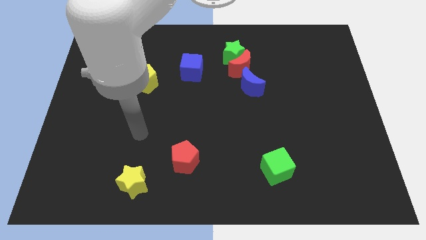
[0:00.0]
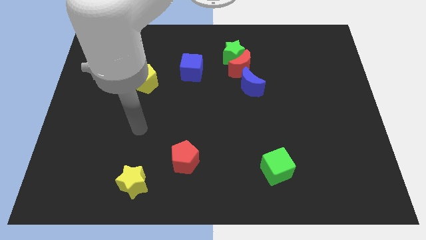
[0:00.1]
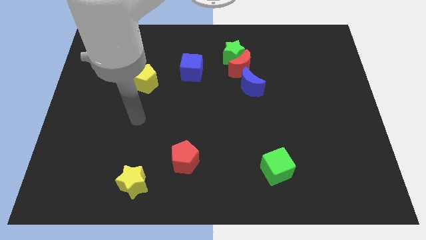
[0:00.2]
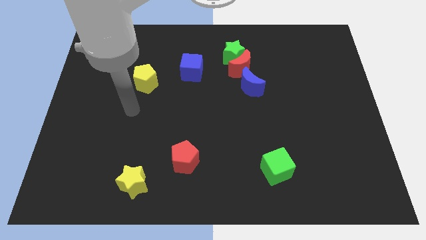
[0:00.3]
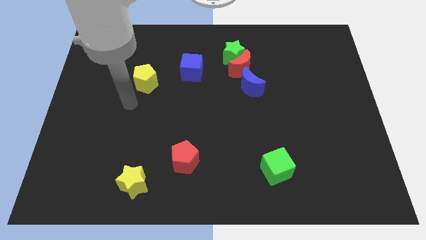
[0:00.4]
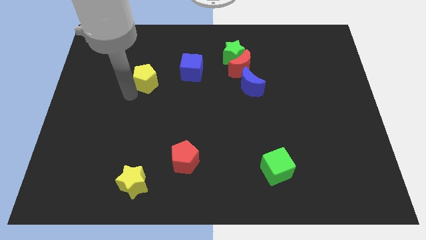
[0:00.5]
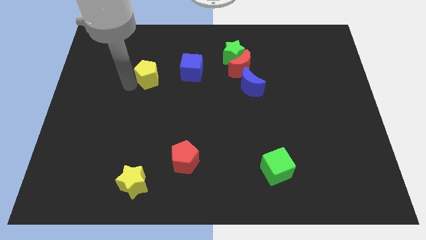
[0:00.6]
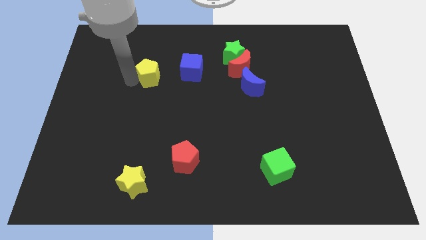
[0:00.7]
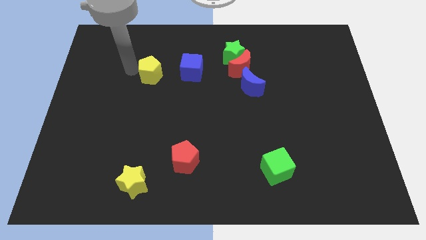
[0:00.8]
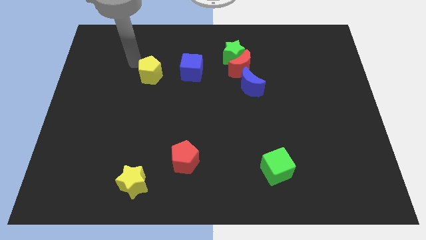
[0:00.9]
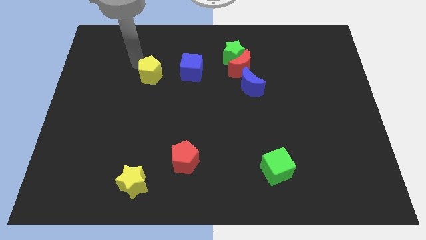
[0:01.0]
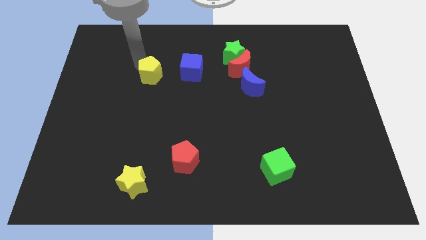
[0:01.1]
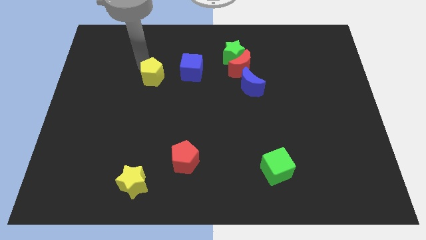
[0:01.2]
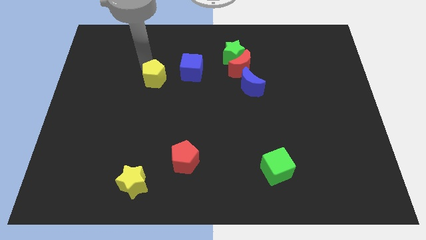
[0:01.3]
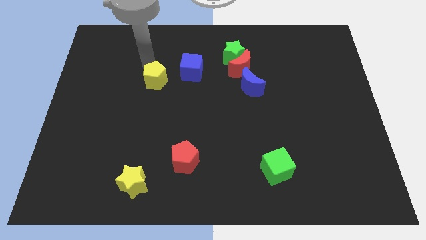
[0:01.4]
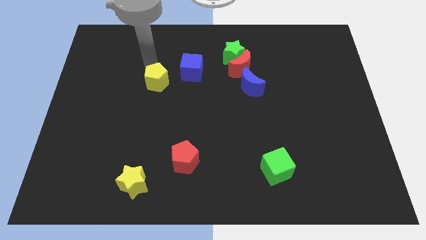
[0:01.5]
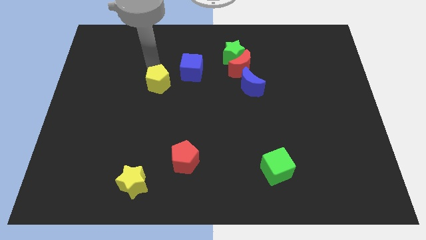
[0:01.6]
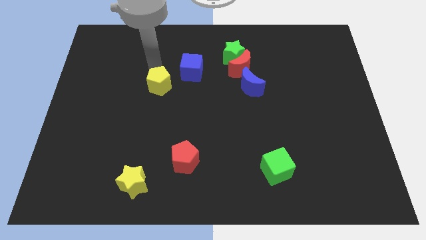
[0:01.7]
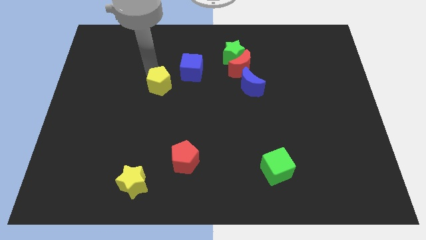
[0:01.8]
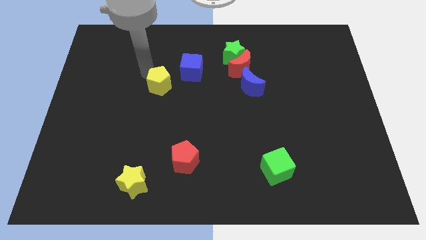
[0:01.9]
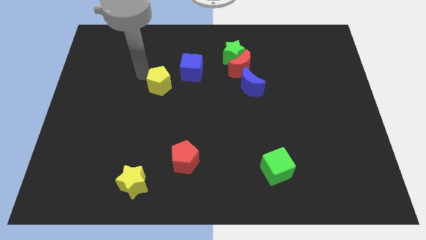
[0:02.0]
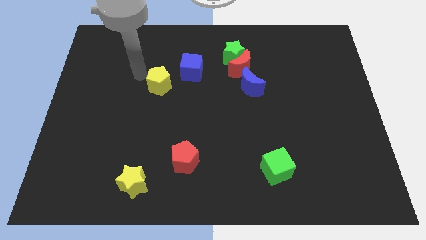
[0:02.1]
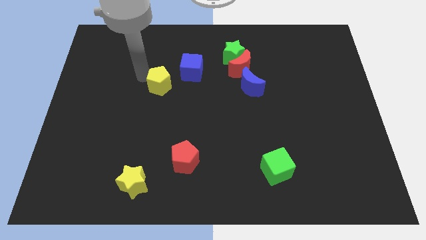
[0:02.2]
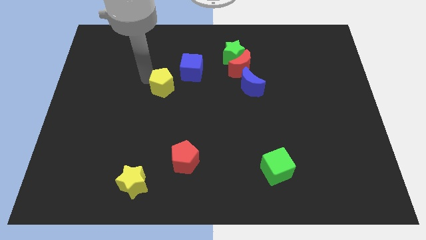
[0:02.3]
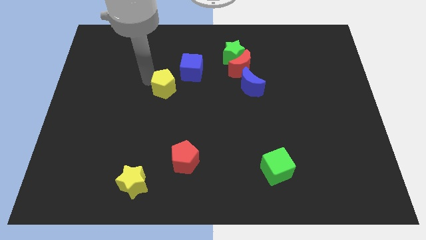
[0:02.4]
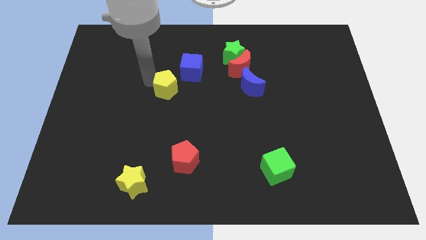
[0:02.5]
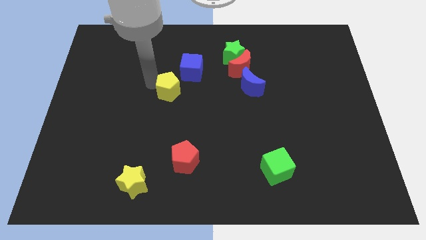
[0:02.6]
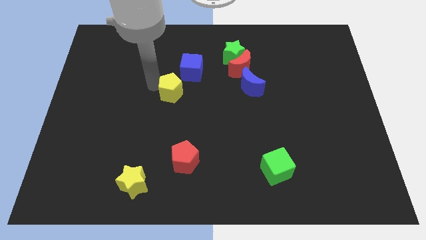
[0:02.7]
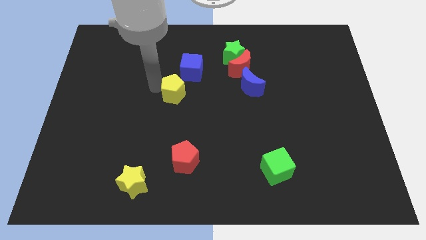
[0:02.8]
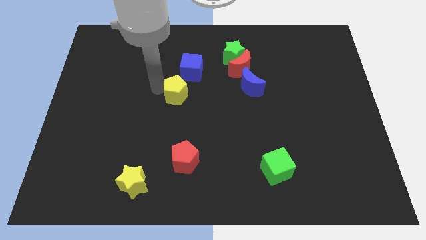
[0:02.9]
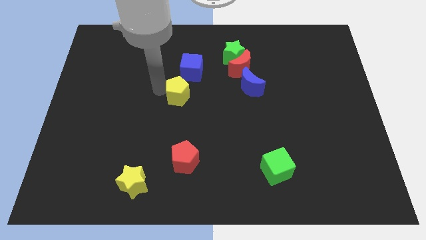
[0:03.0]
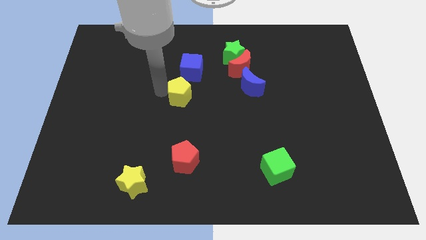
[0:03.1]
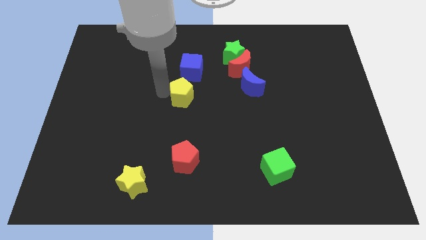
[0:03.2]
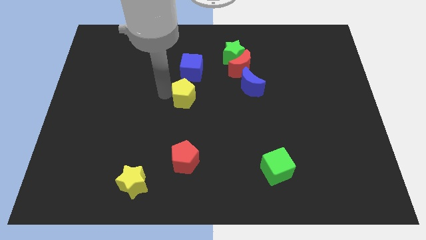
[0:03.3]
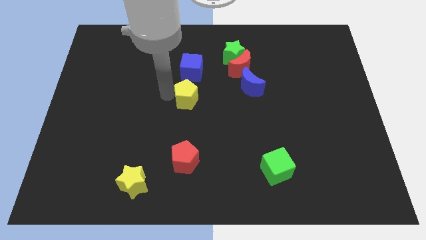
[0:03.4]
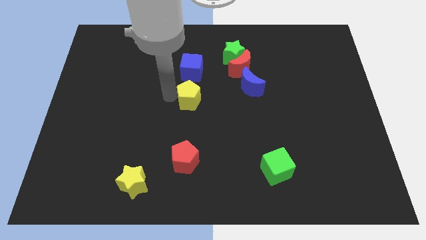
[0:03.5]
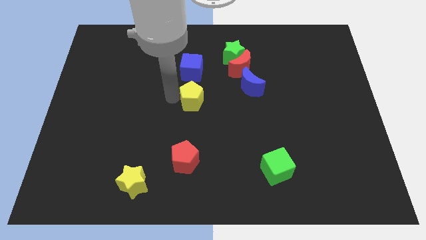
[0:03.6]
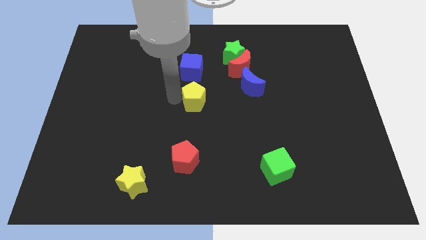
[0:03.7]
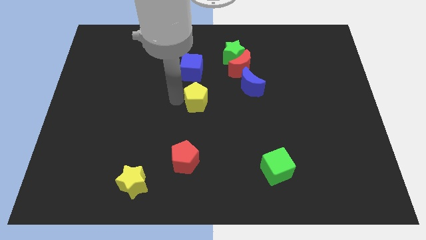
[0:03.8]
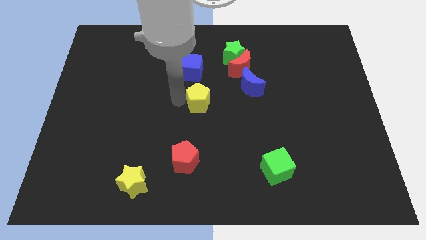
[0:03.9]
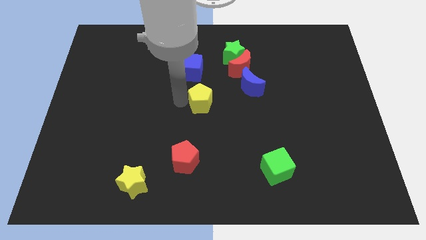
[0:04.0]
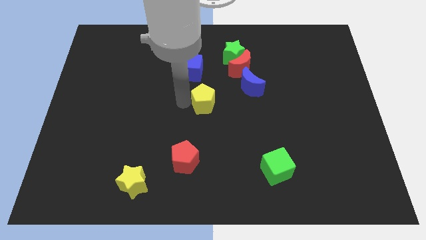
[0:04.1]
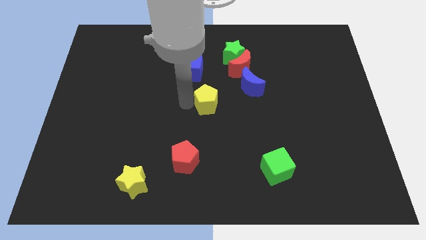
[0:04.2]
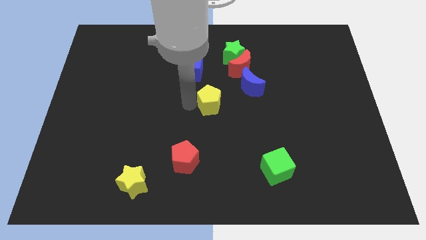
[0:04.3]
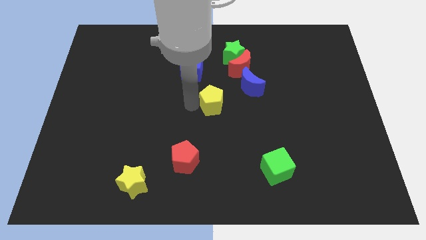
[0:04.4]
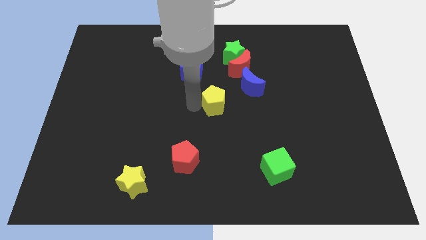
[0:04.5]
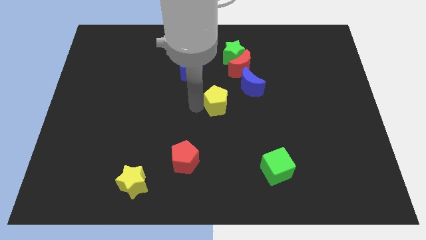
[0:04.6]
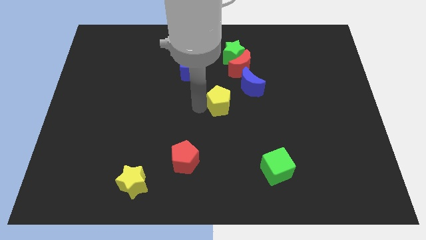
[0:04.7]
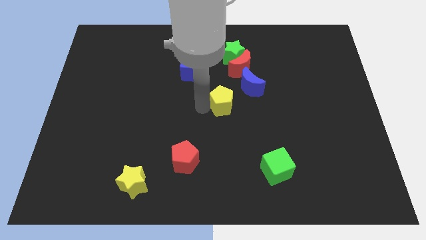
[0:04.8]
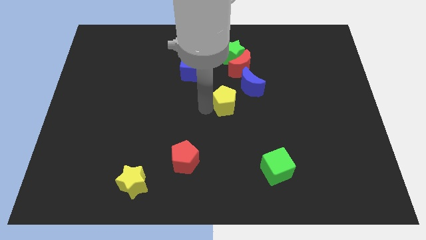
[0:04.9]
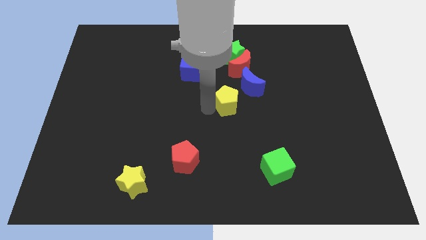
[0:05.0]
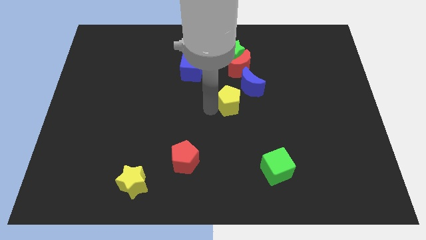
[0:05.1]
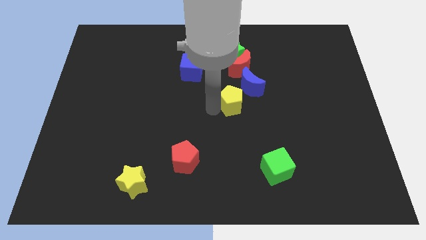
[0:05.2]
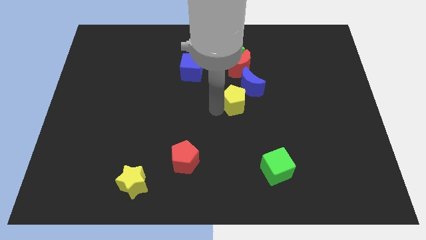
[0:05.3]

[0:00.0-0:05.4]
slide the yellow pentagon to the right

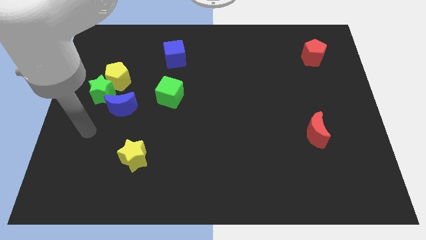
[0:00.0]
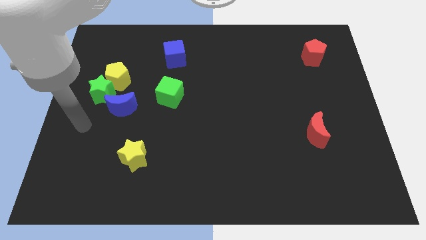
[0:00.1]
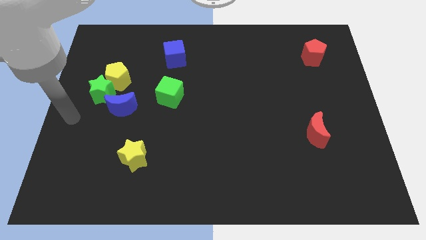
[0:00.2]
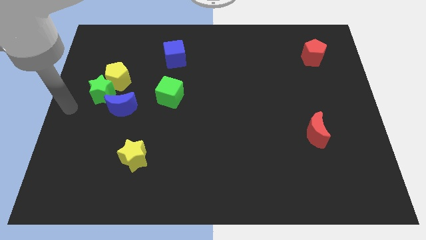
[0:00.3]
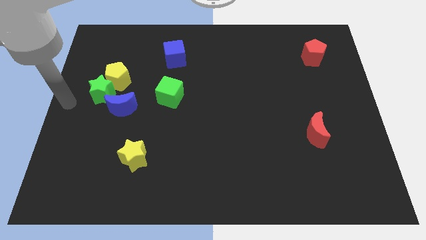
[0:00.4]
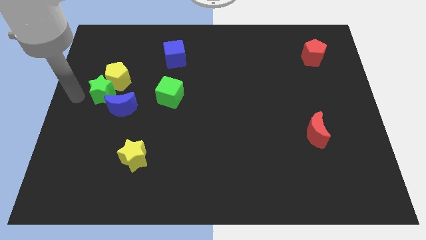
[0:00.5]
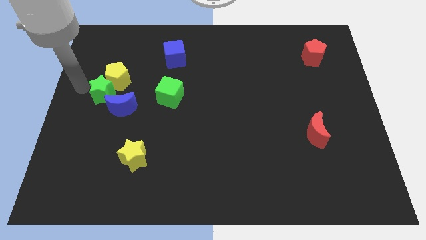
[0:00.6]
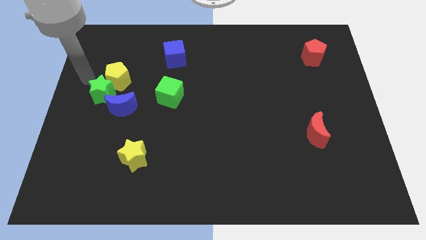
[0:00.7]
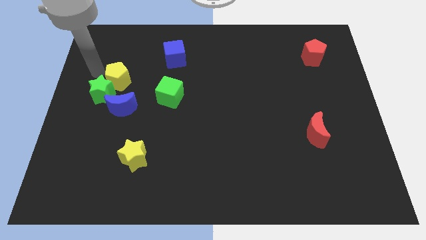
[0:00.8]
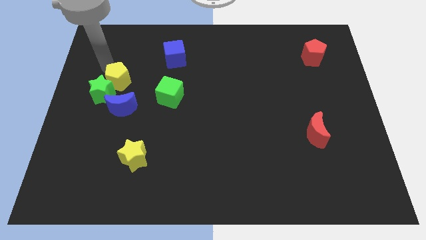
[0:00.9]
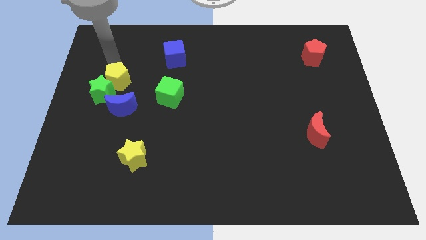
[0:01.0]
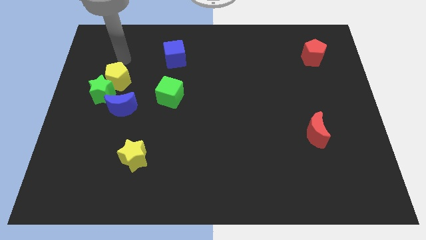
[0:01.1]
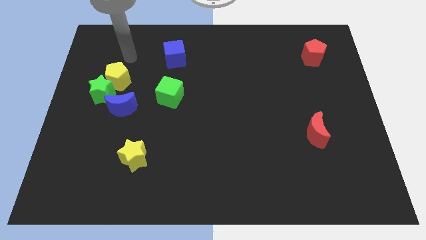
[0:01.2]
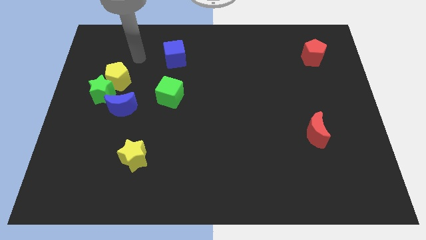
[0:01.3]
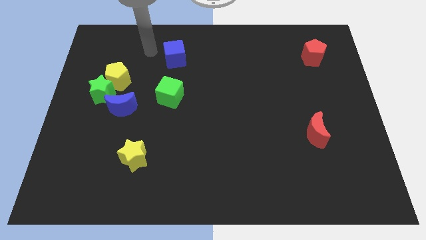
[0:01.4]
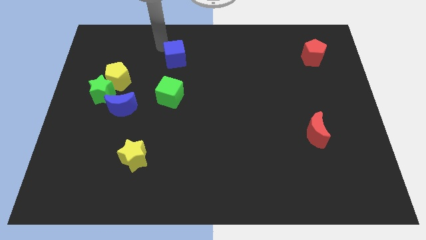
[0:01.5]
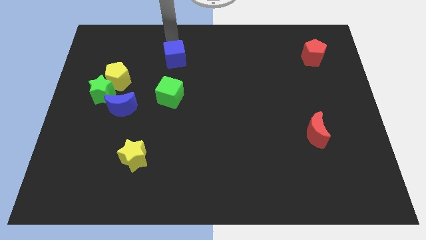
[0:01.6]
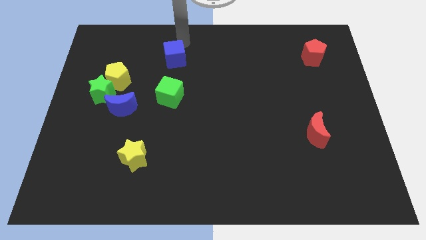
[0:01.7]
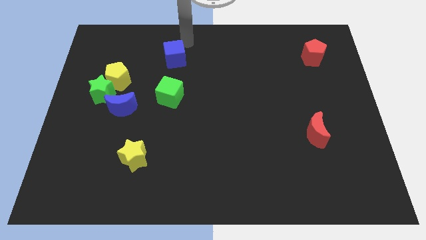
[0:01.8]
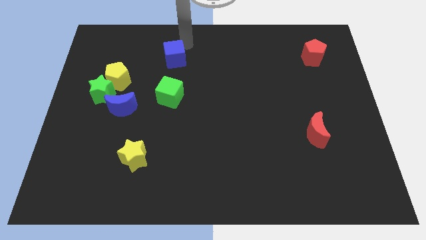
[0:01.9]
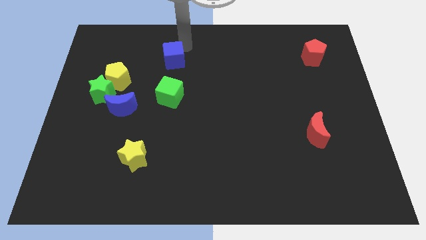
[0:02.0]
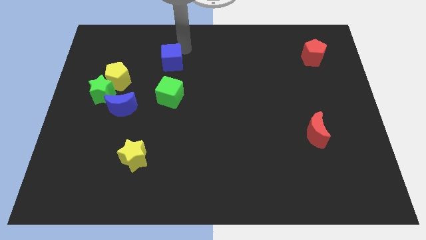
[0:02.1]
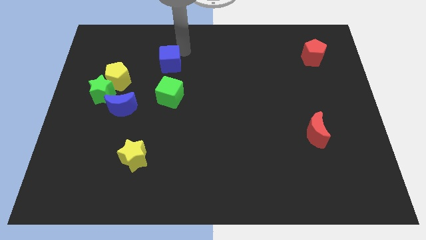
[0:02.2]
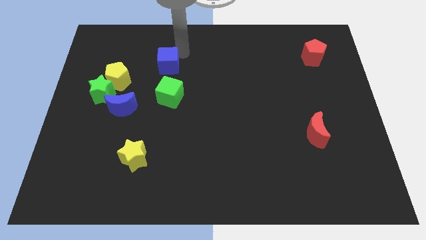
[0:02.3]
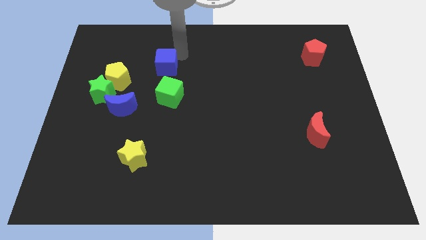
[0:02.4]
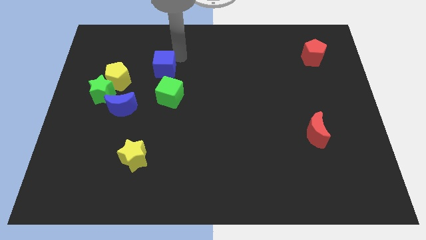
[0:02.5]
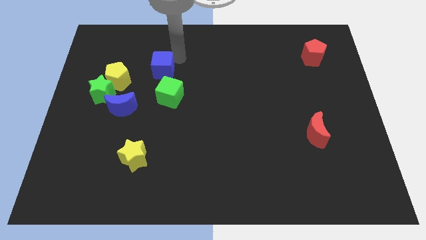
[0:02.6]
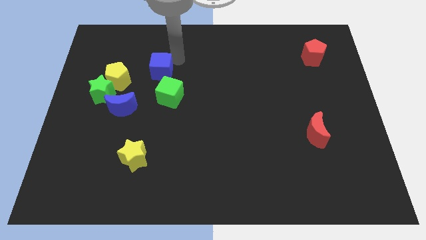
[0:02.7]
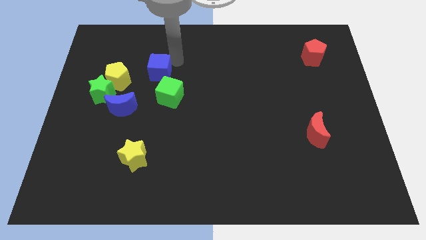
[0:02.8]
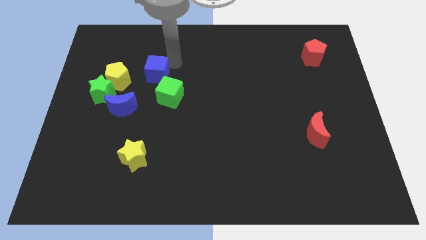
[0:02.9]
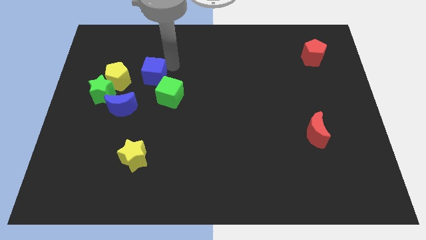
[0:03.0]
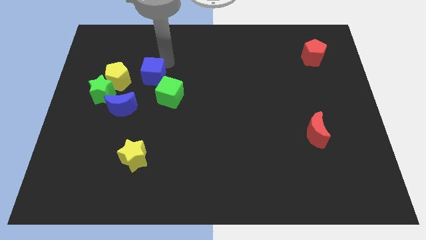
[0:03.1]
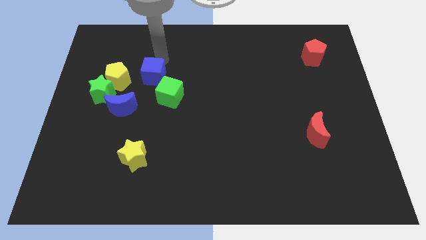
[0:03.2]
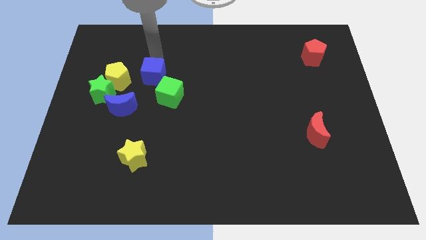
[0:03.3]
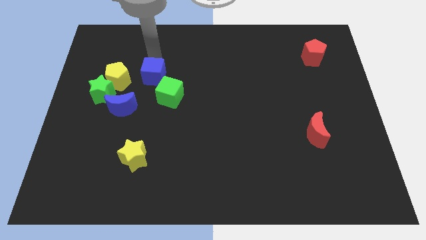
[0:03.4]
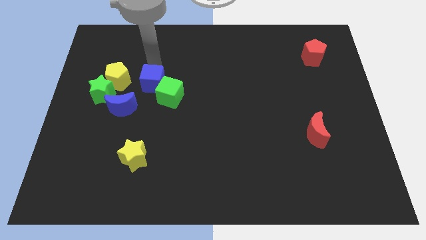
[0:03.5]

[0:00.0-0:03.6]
slightly push the blue cube downwards
